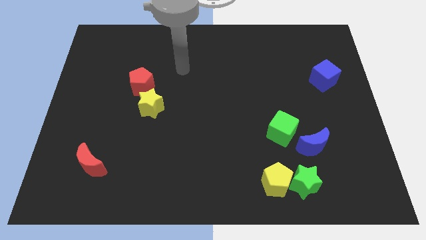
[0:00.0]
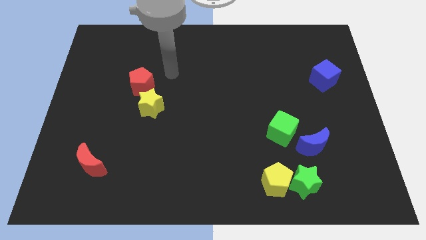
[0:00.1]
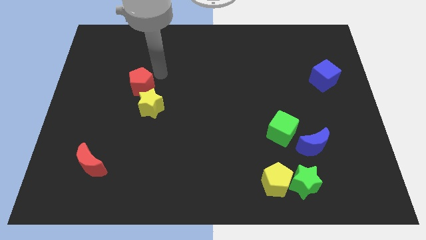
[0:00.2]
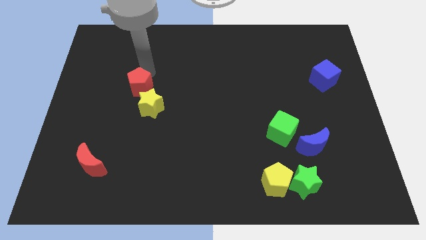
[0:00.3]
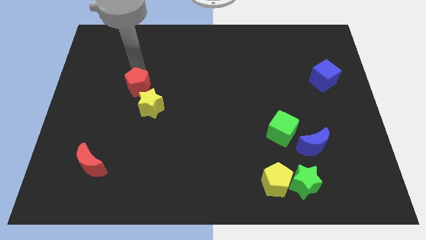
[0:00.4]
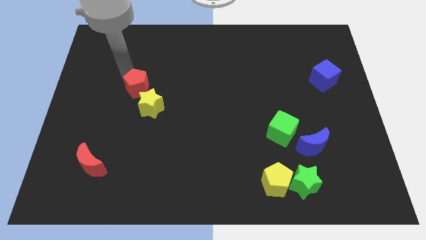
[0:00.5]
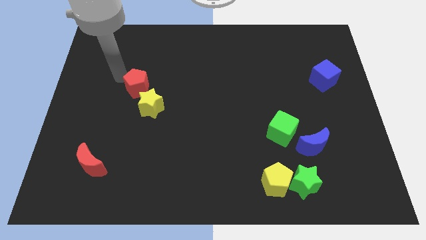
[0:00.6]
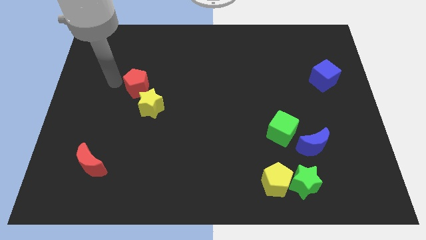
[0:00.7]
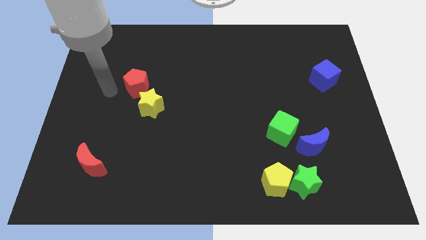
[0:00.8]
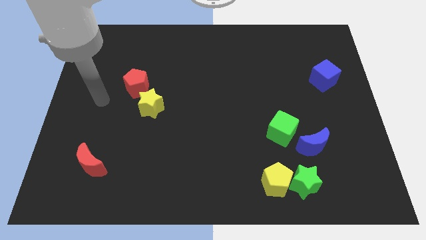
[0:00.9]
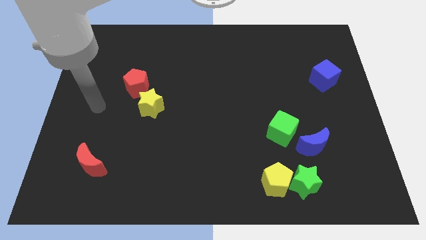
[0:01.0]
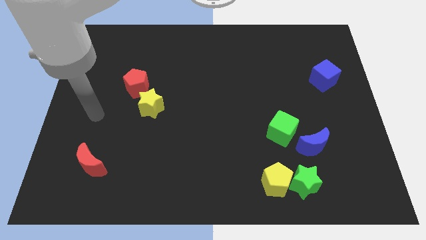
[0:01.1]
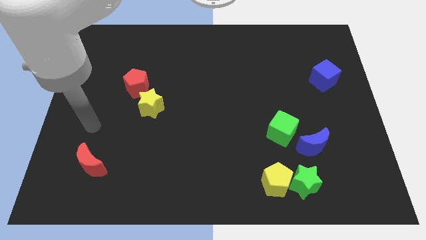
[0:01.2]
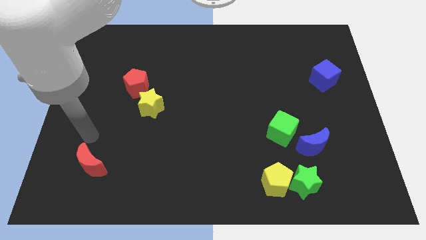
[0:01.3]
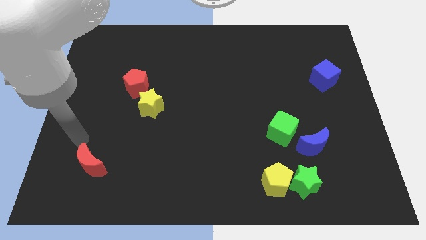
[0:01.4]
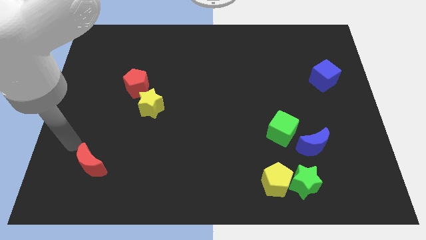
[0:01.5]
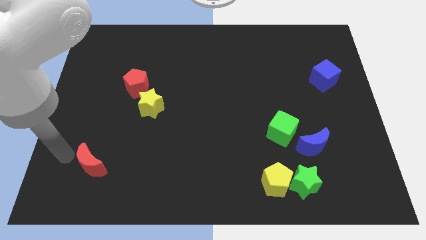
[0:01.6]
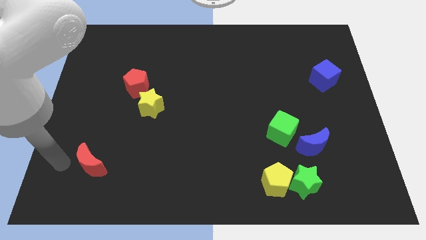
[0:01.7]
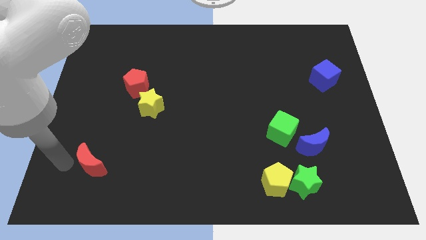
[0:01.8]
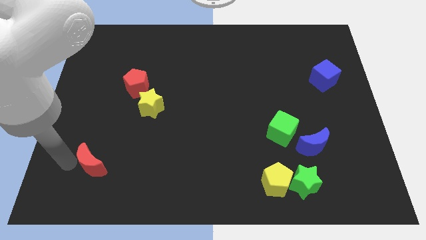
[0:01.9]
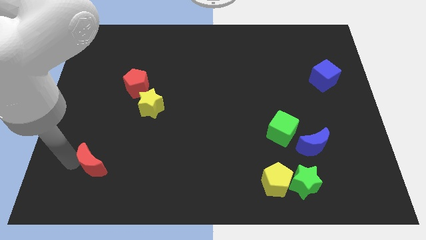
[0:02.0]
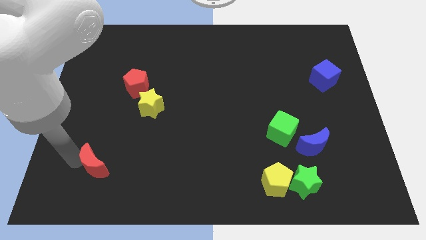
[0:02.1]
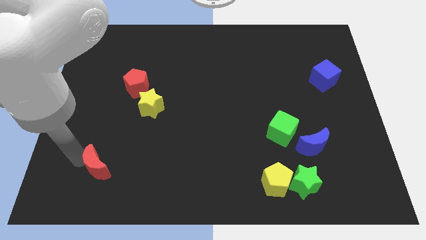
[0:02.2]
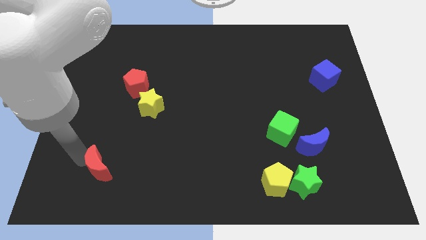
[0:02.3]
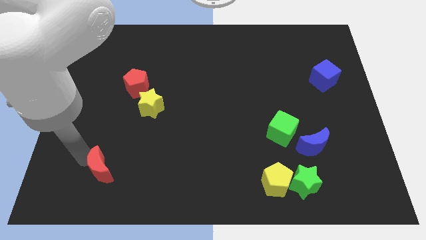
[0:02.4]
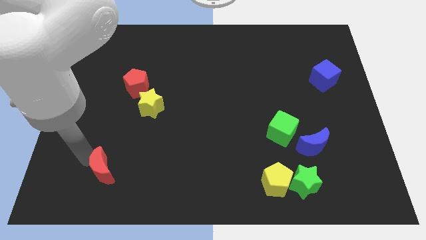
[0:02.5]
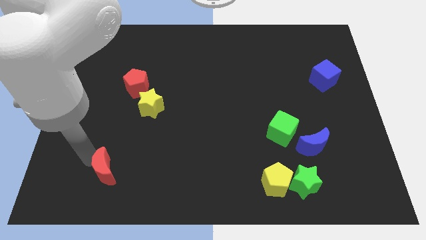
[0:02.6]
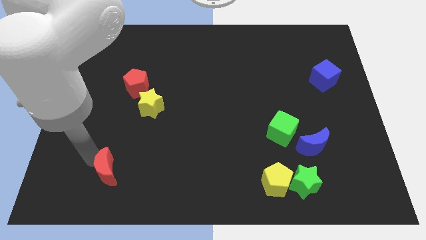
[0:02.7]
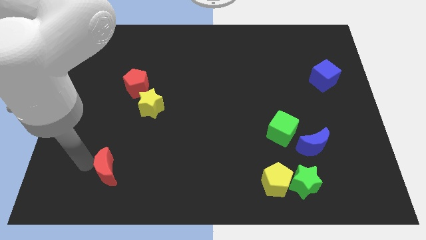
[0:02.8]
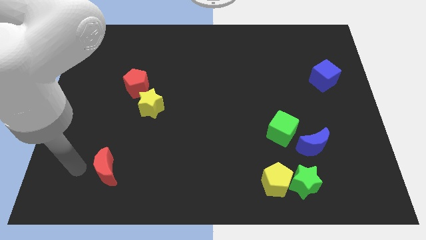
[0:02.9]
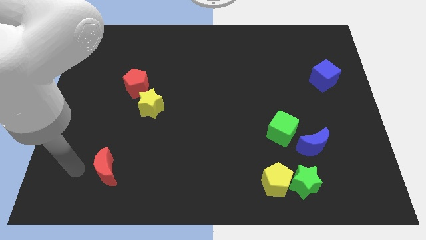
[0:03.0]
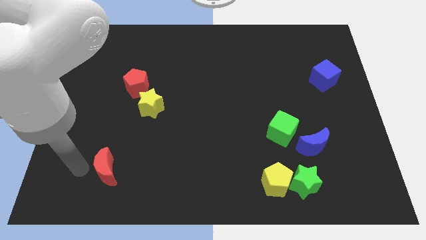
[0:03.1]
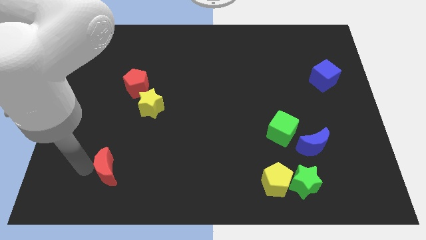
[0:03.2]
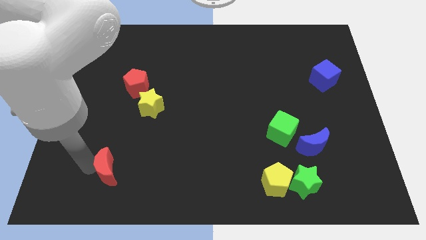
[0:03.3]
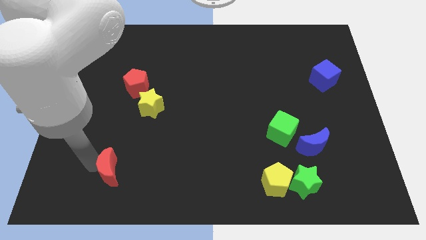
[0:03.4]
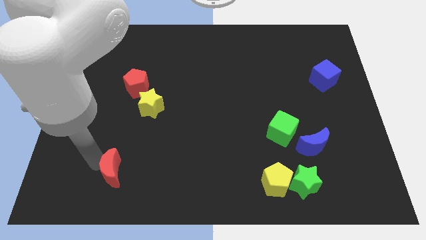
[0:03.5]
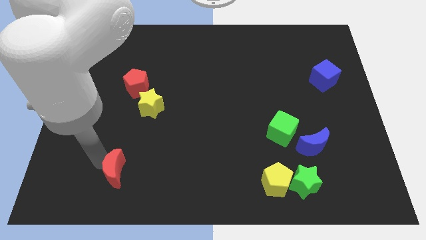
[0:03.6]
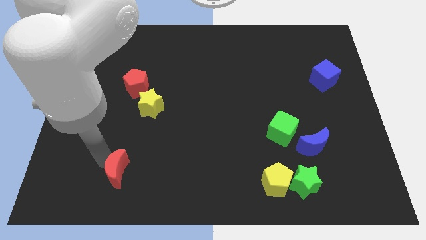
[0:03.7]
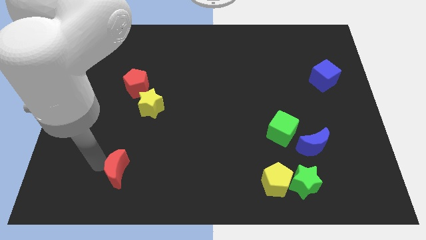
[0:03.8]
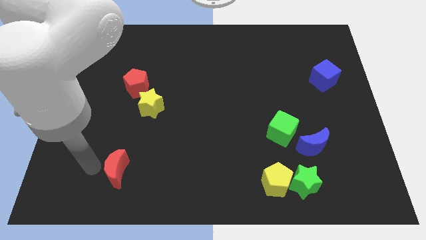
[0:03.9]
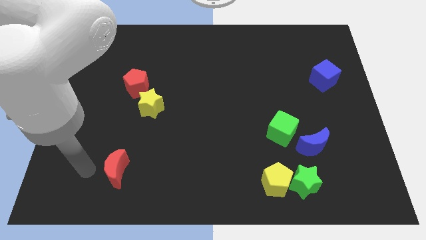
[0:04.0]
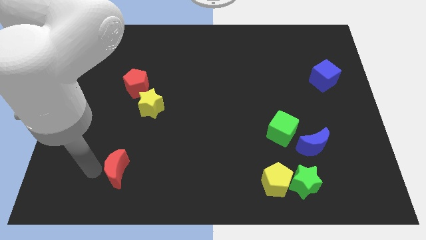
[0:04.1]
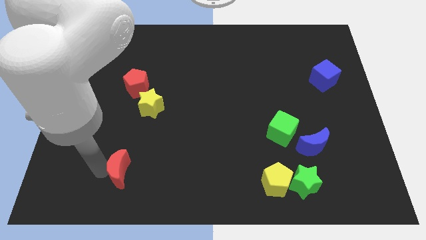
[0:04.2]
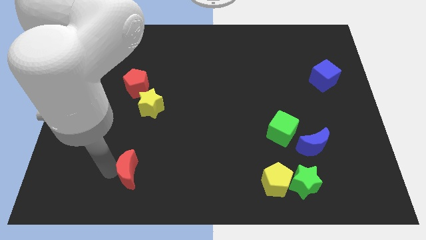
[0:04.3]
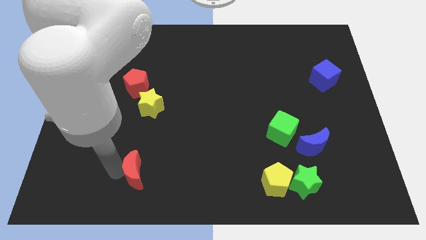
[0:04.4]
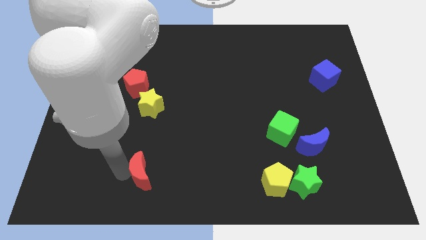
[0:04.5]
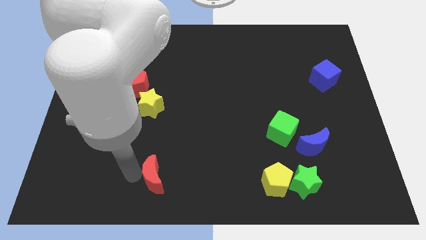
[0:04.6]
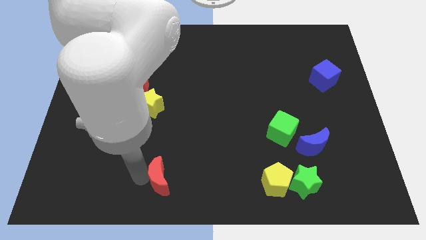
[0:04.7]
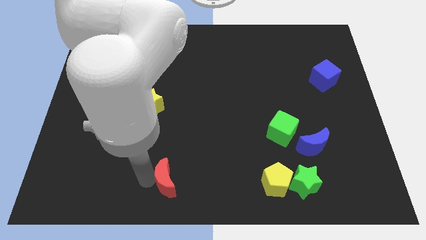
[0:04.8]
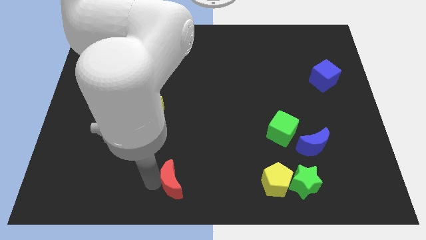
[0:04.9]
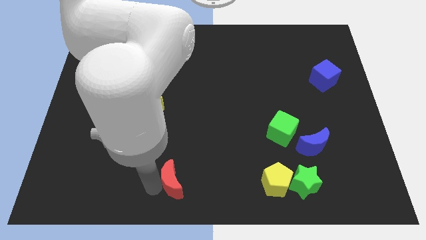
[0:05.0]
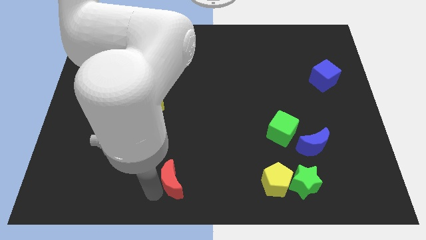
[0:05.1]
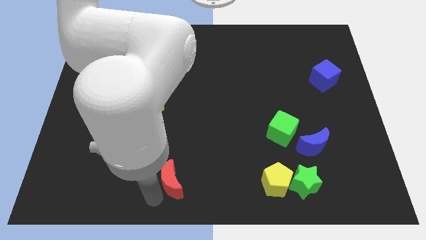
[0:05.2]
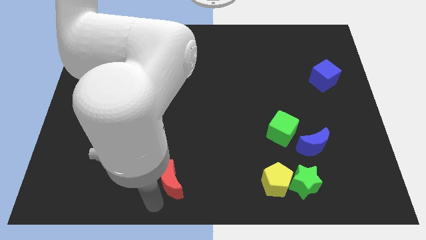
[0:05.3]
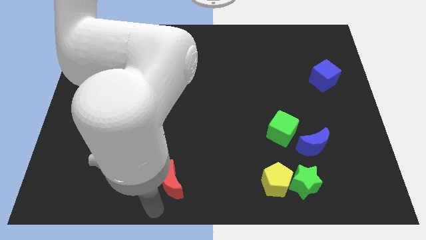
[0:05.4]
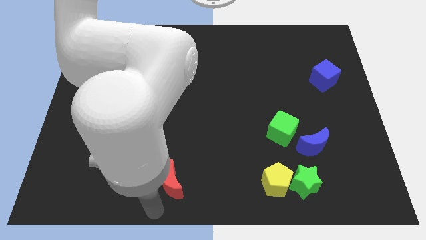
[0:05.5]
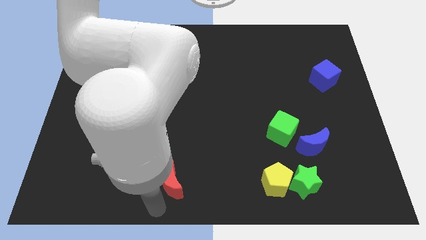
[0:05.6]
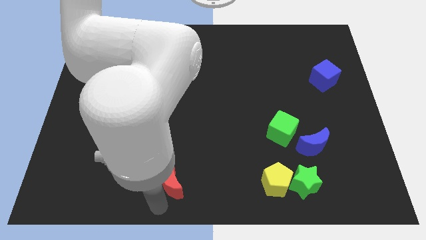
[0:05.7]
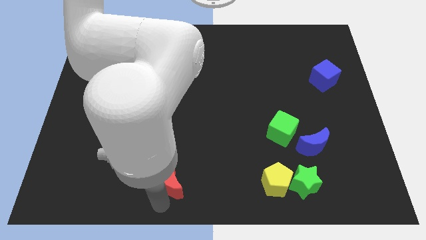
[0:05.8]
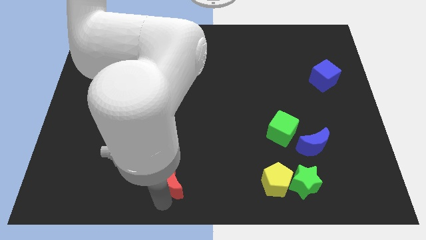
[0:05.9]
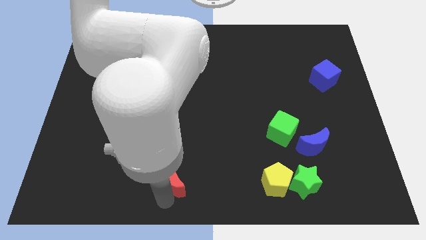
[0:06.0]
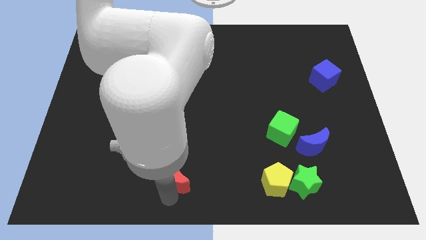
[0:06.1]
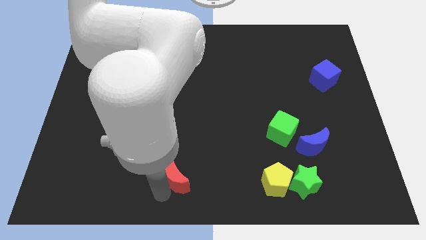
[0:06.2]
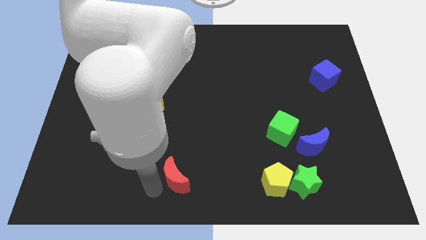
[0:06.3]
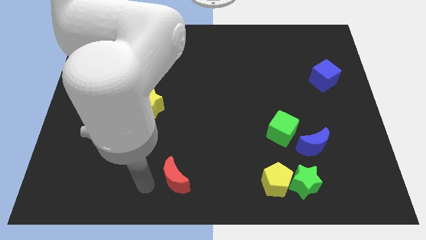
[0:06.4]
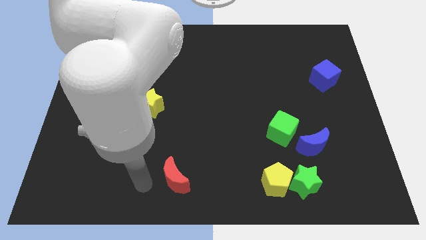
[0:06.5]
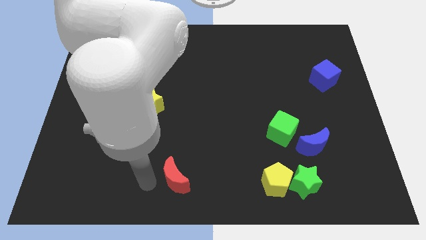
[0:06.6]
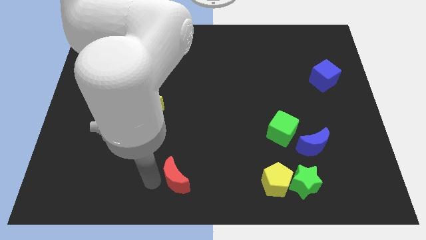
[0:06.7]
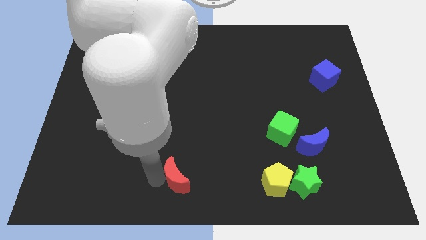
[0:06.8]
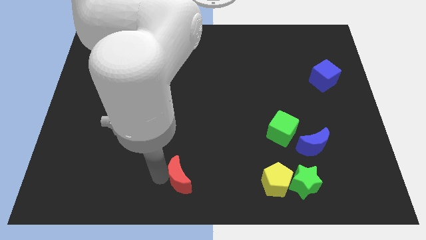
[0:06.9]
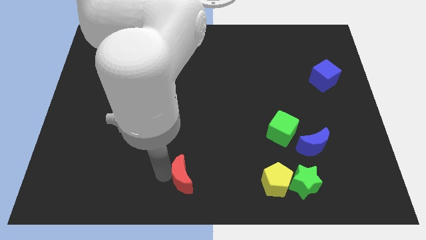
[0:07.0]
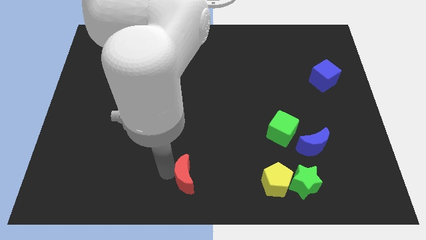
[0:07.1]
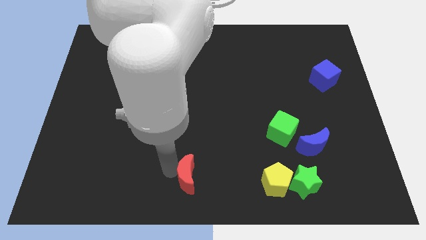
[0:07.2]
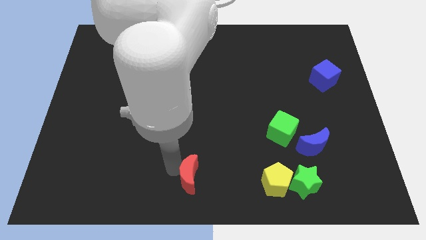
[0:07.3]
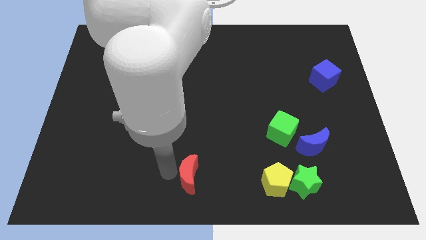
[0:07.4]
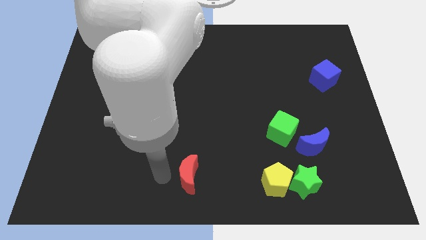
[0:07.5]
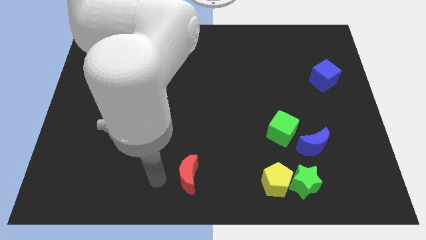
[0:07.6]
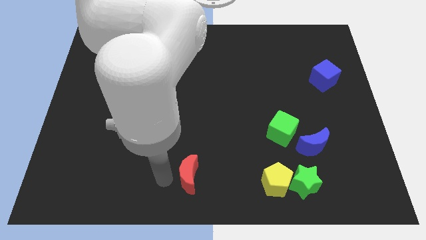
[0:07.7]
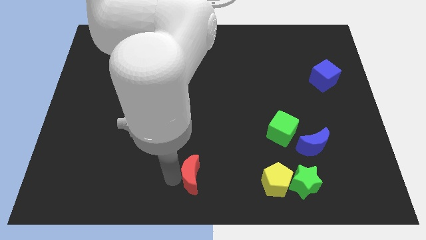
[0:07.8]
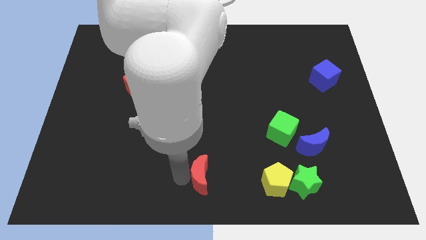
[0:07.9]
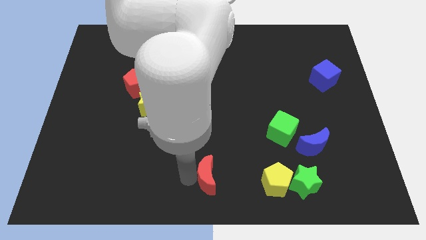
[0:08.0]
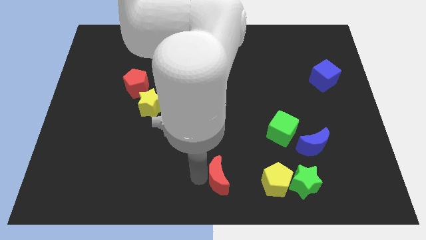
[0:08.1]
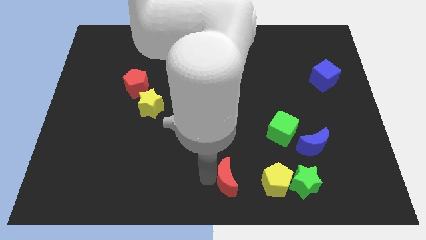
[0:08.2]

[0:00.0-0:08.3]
slide the red moon to the left side of the green star
